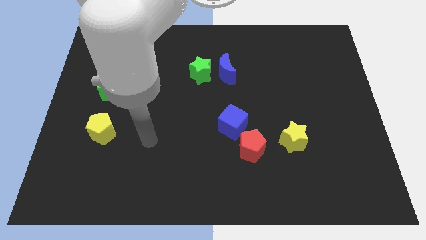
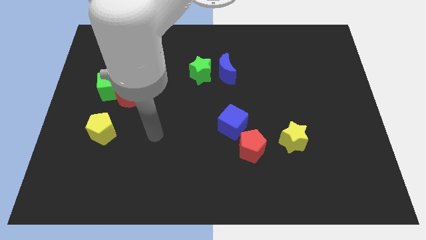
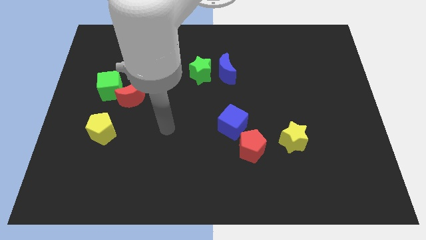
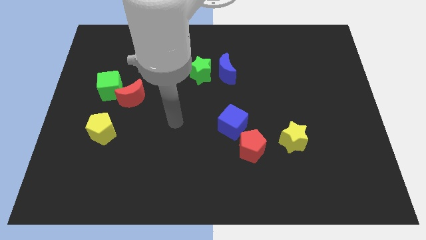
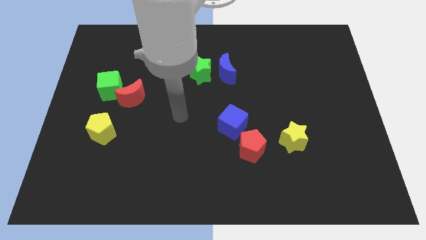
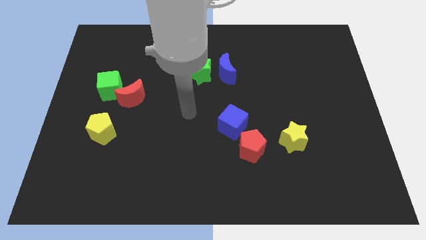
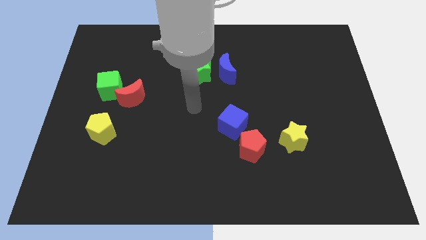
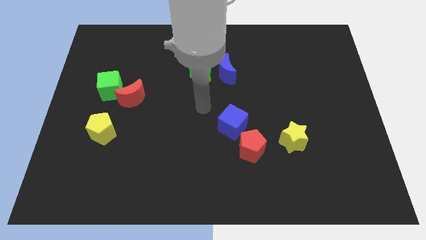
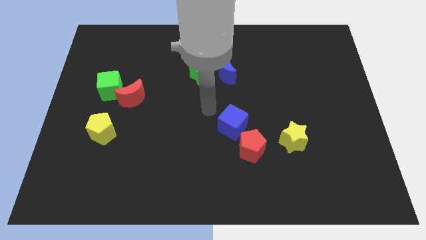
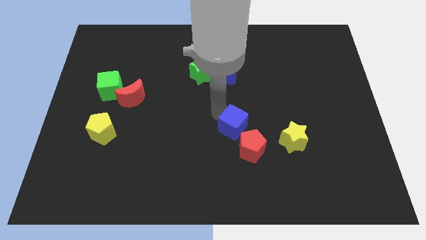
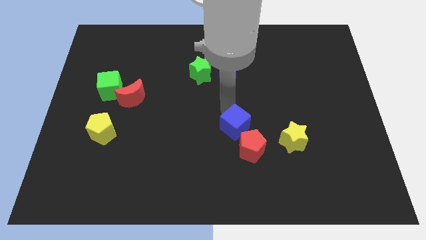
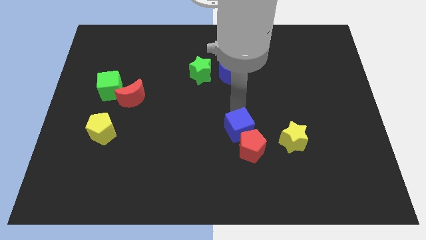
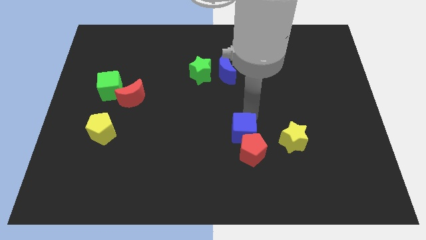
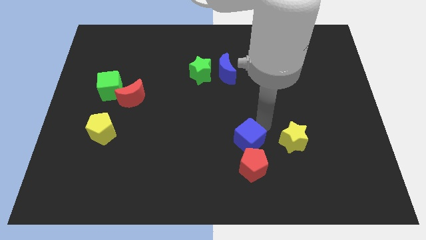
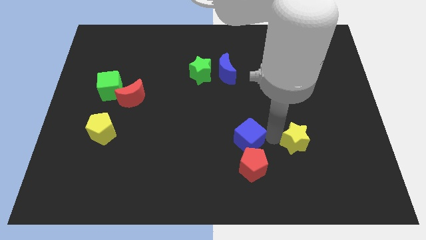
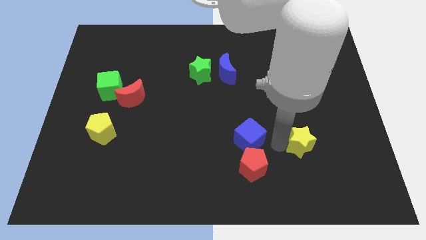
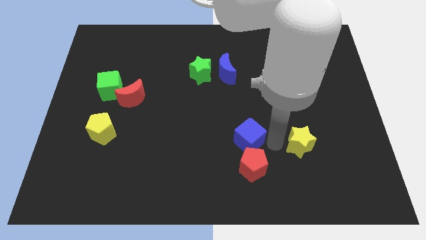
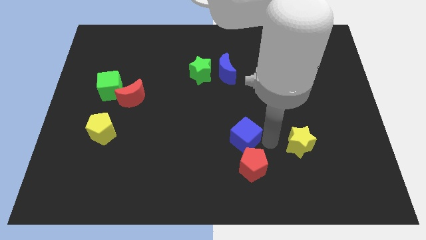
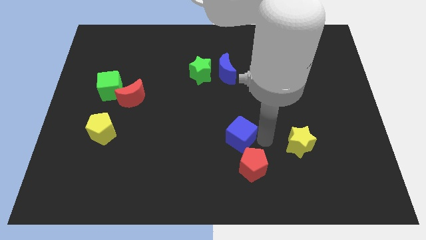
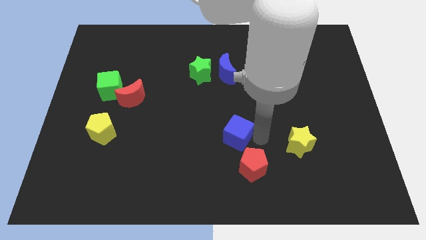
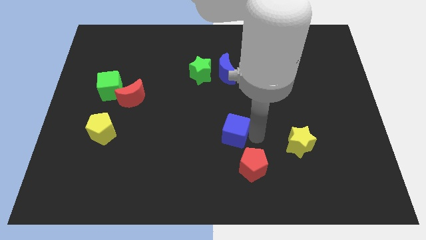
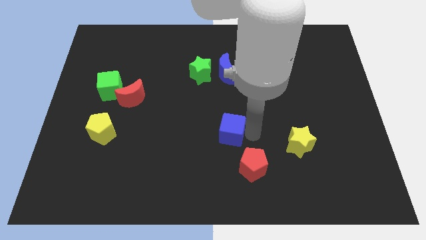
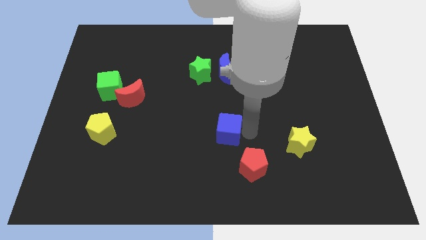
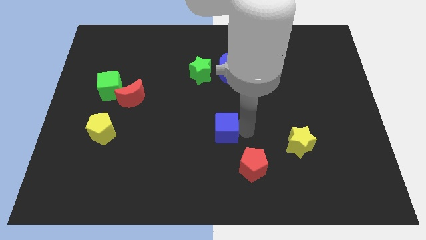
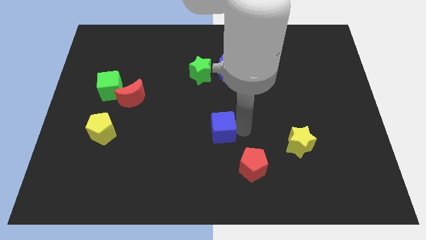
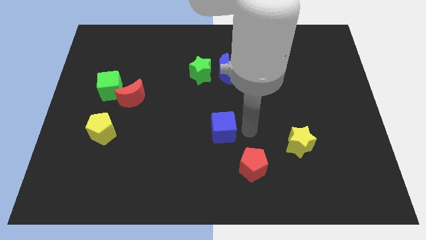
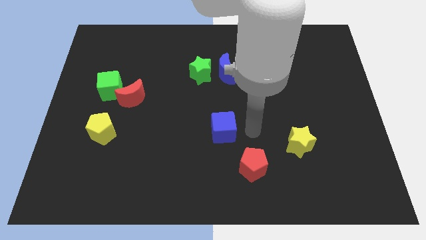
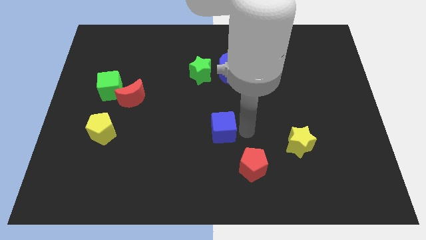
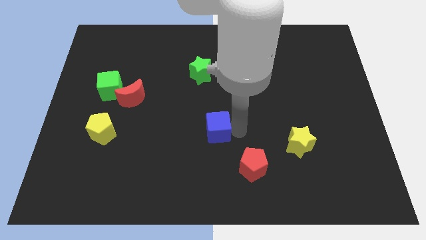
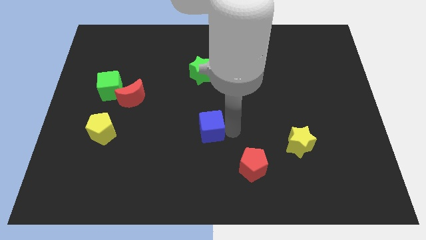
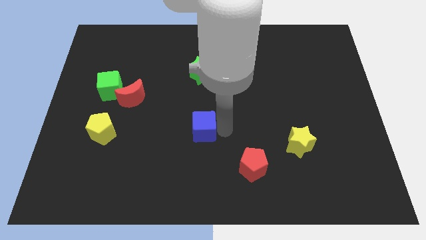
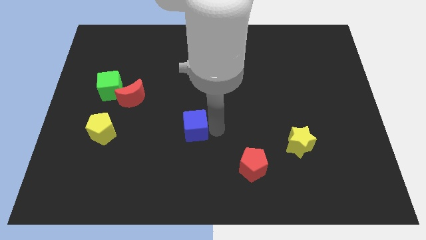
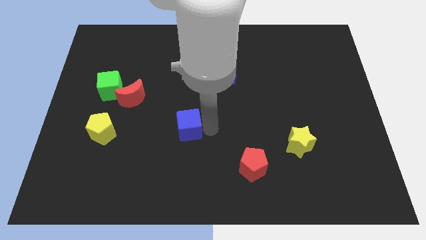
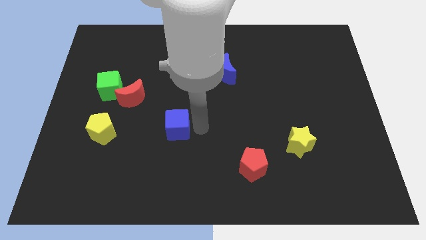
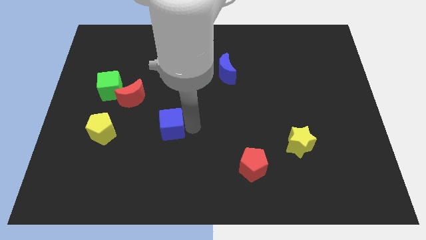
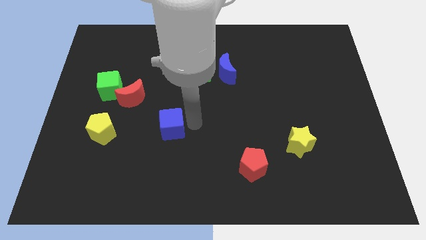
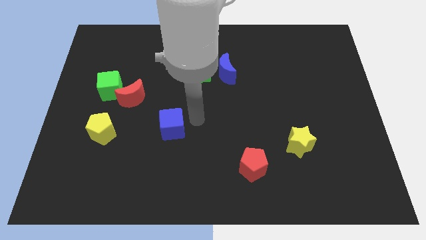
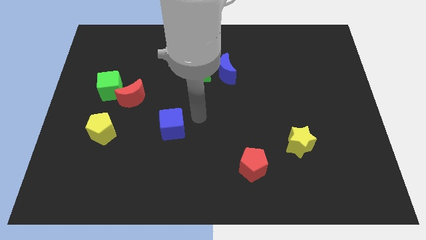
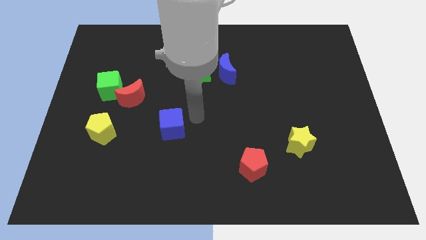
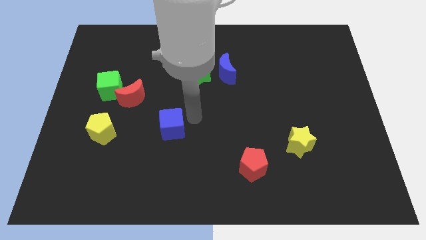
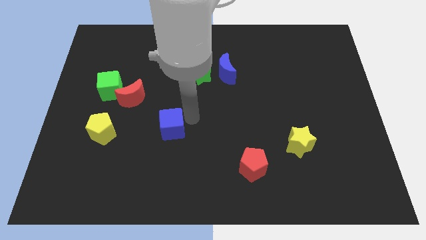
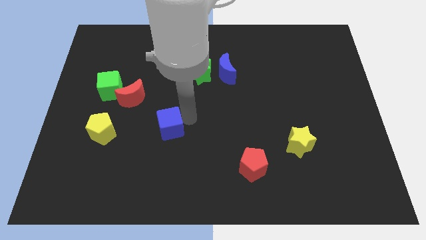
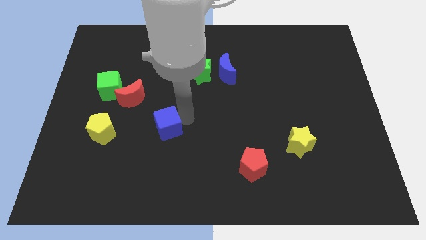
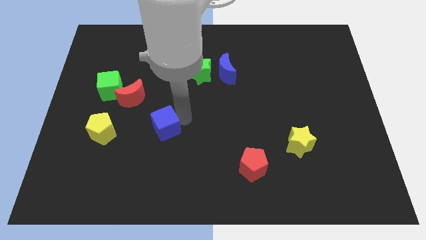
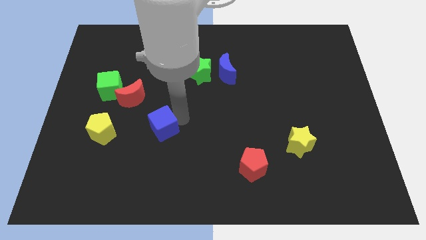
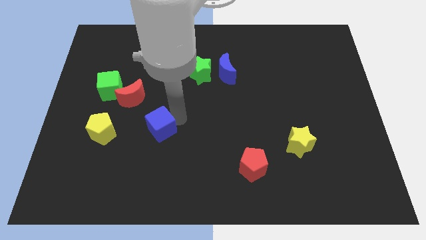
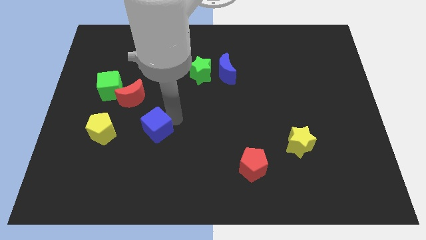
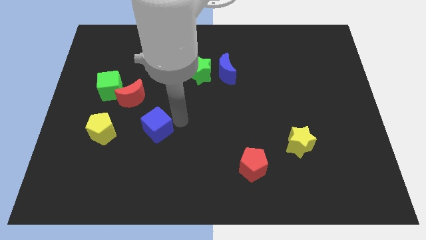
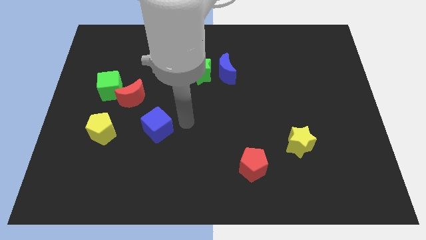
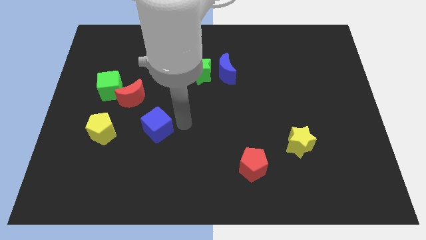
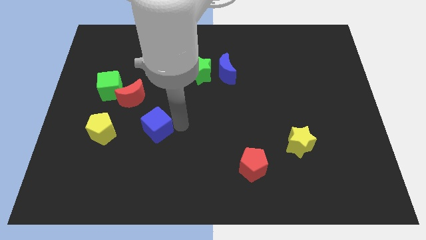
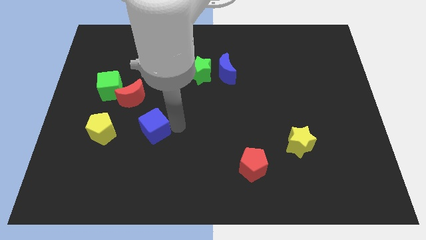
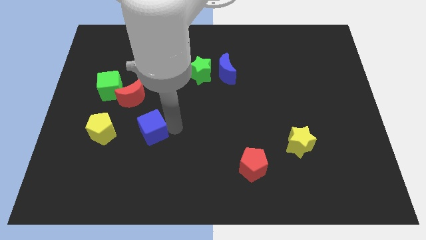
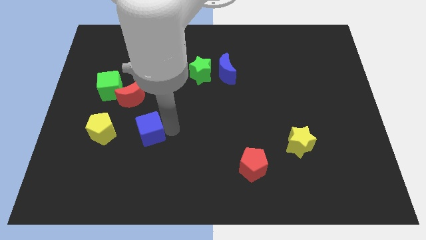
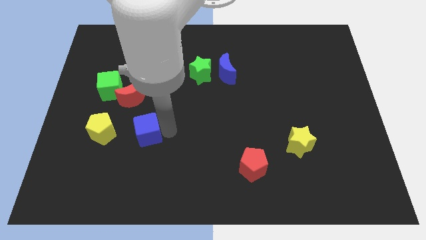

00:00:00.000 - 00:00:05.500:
move the blue cube to the bottom of the red moon

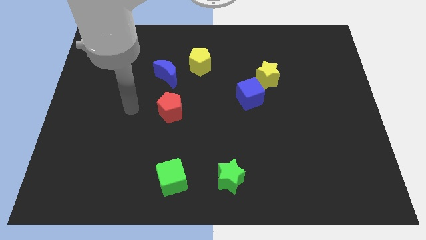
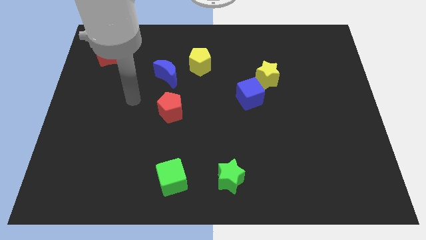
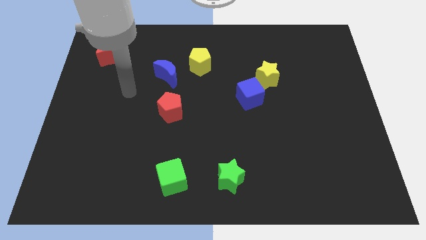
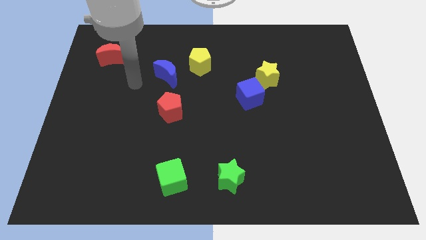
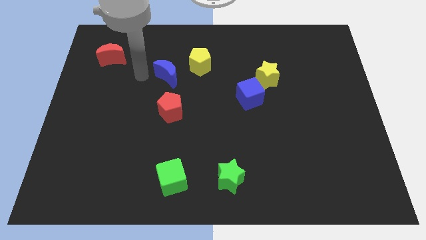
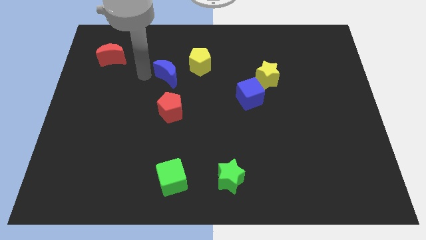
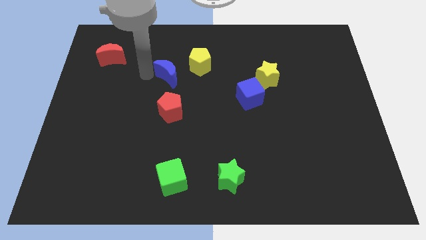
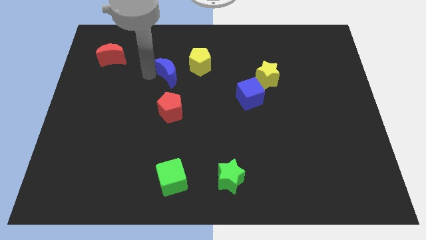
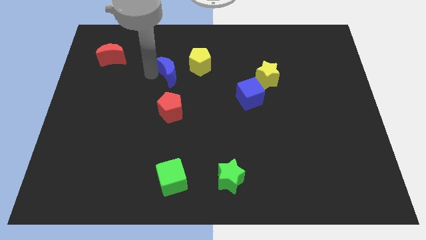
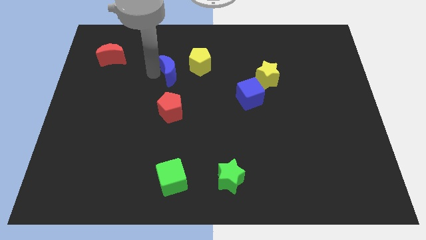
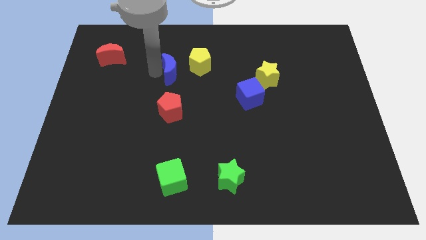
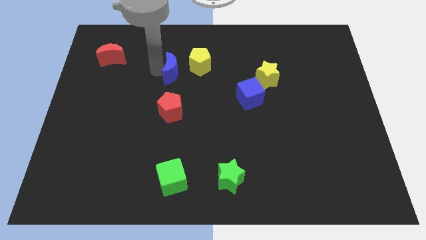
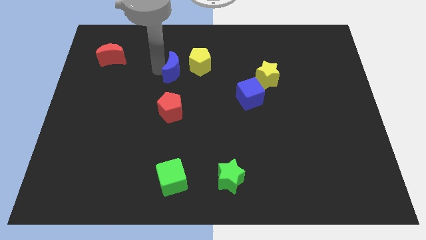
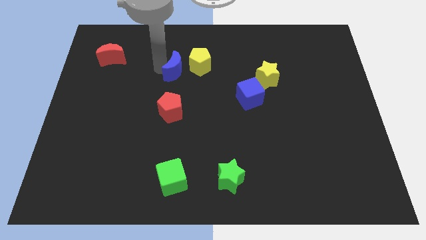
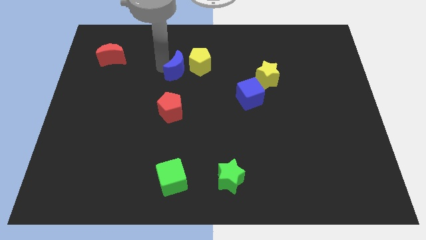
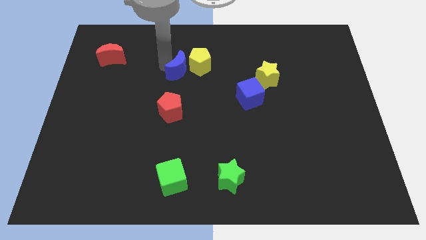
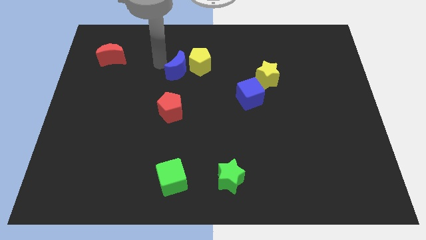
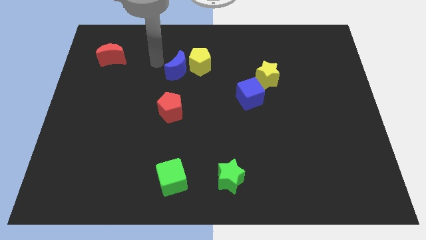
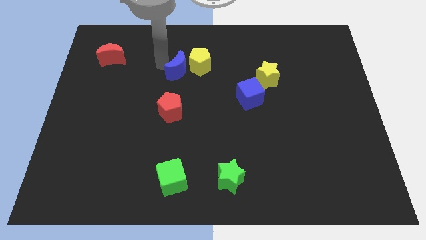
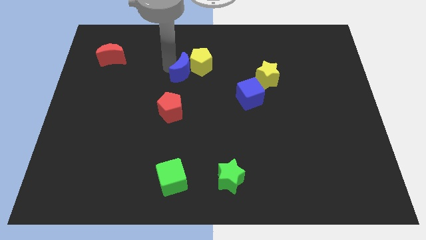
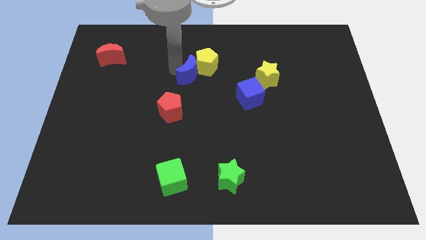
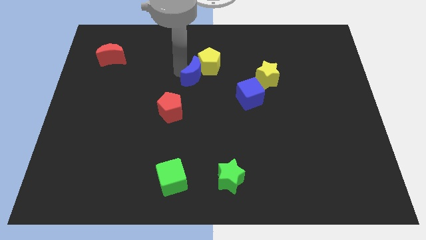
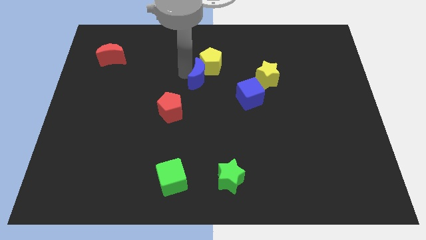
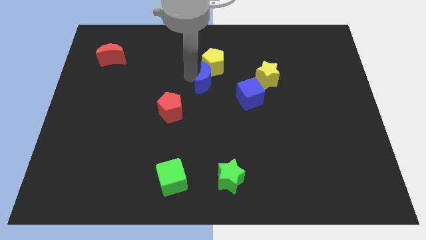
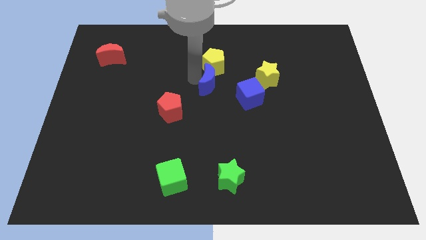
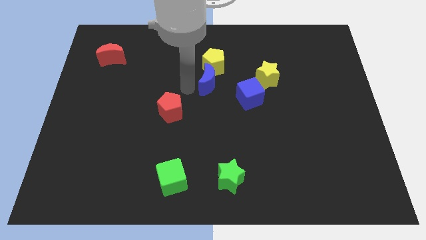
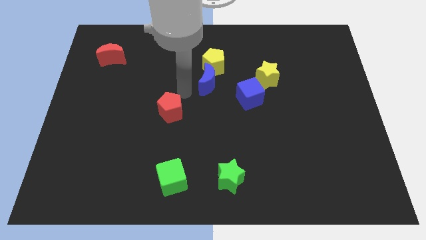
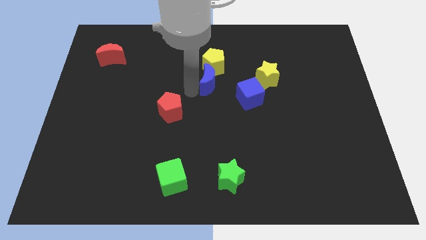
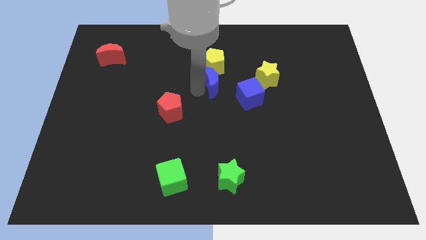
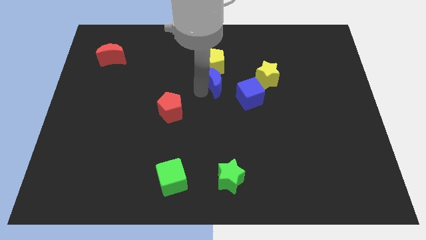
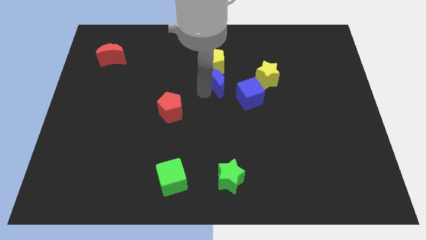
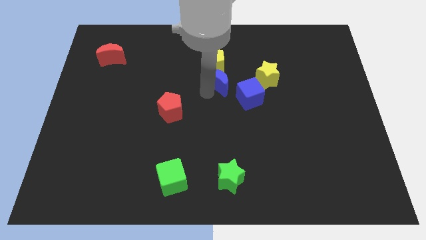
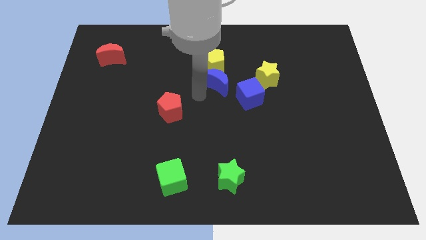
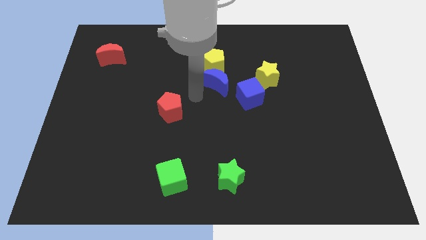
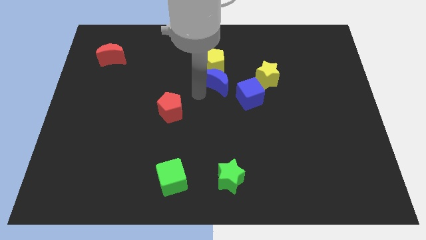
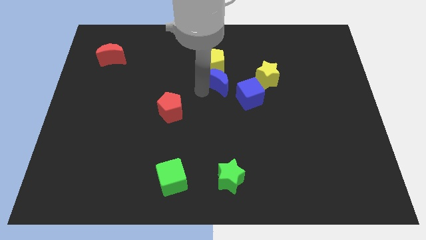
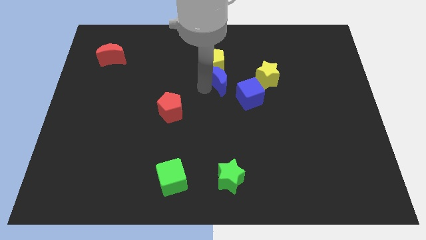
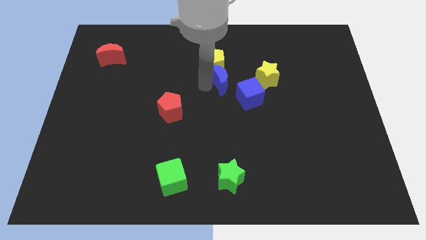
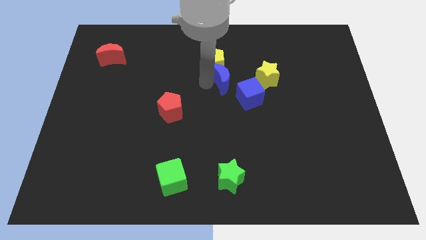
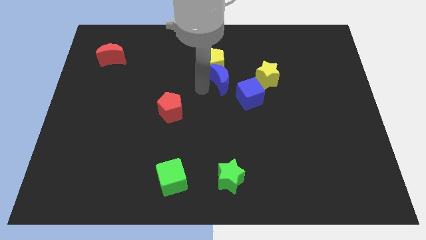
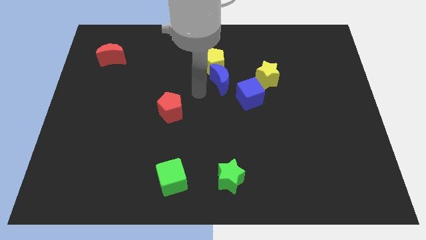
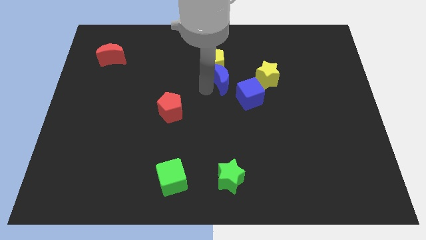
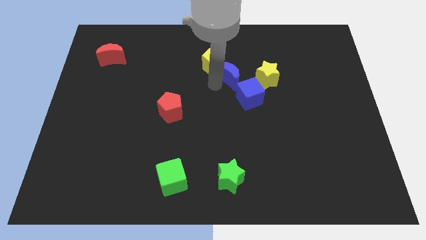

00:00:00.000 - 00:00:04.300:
push the blue moon to the right of the yellow pentagon
